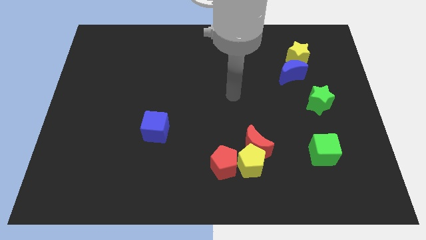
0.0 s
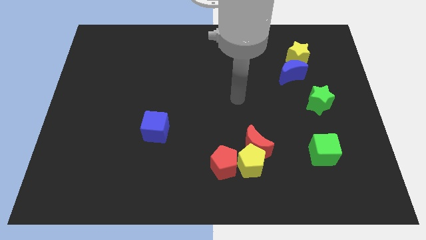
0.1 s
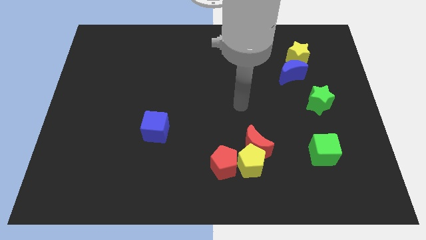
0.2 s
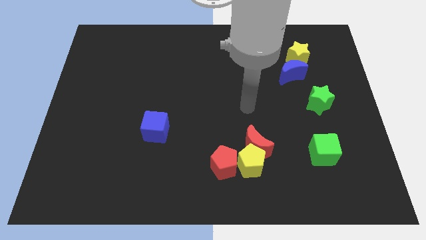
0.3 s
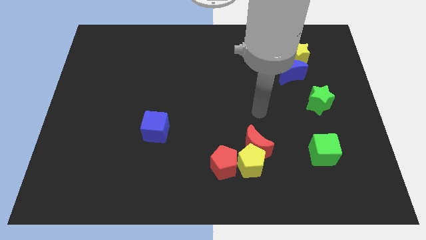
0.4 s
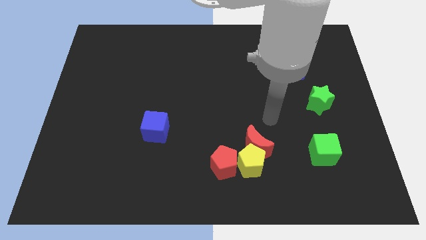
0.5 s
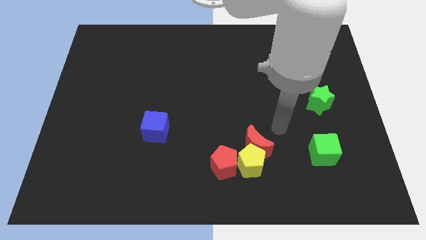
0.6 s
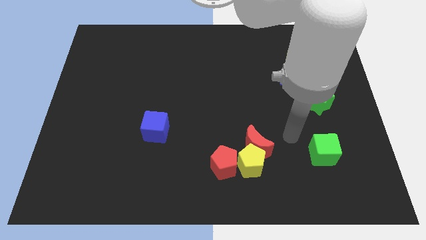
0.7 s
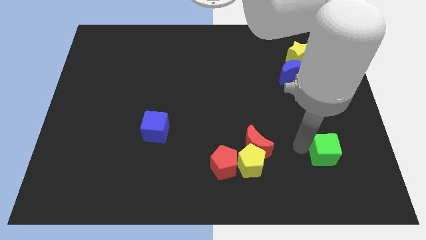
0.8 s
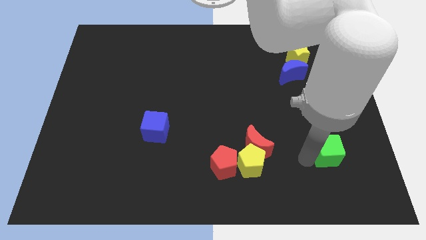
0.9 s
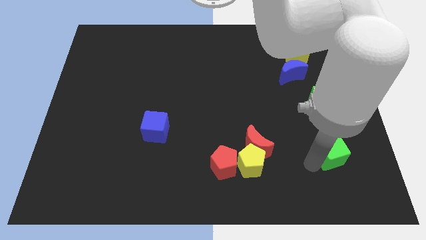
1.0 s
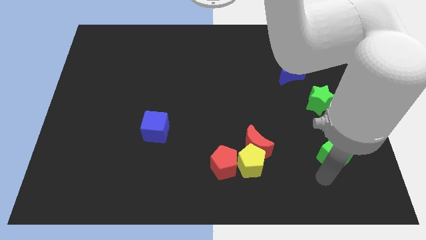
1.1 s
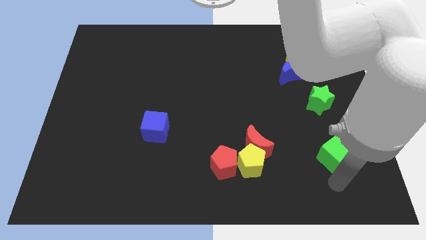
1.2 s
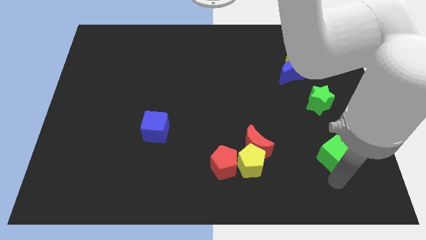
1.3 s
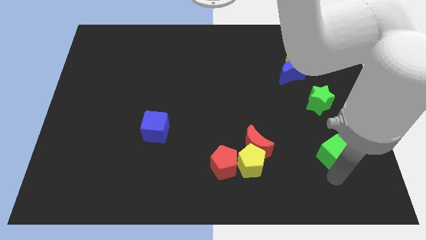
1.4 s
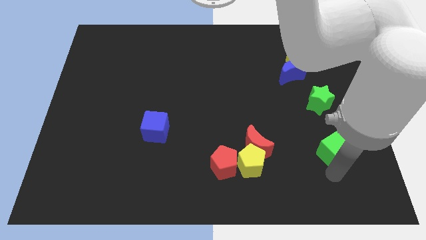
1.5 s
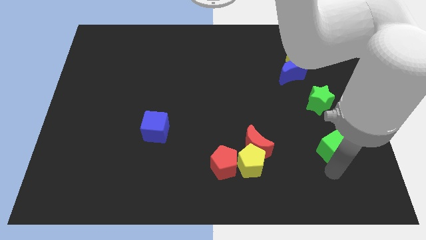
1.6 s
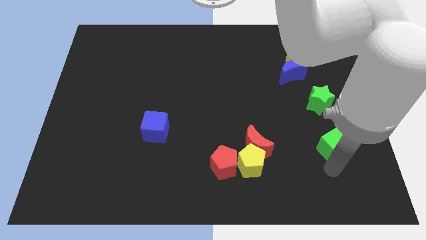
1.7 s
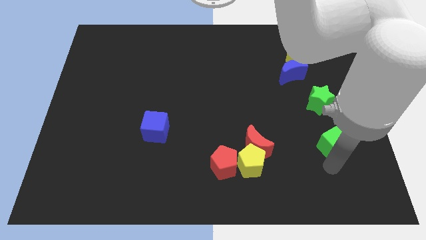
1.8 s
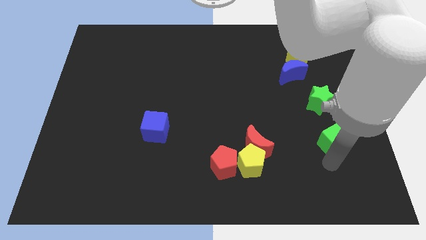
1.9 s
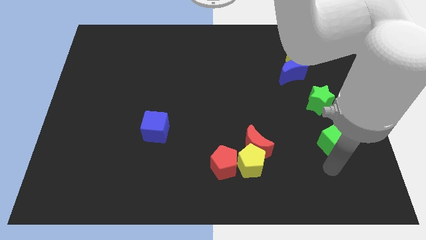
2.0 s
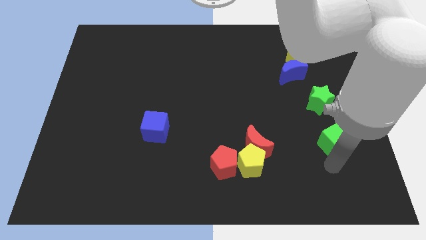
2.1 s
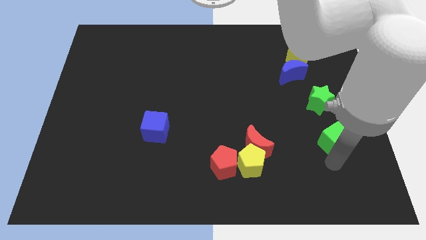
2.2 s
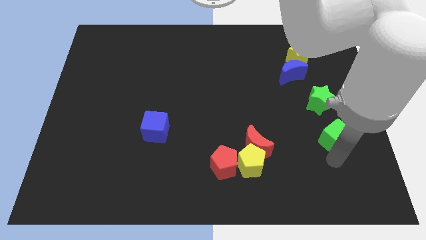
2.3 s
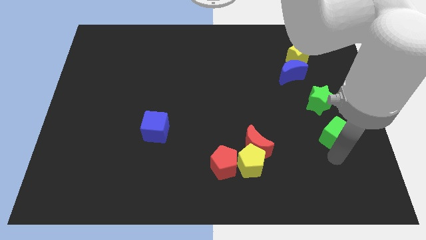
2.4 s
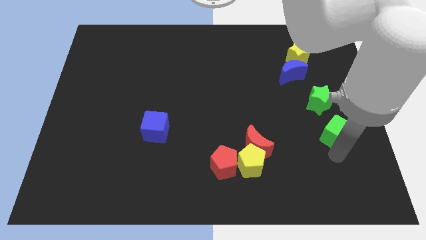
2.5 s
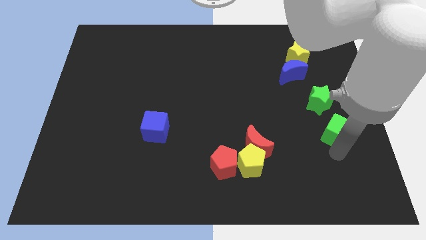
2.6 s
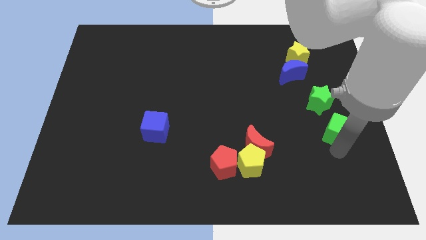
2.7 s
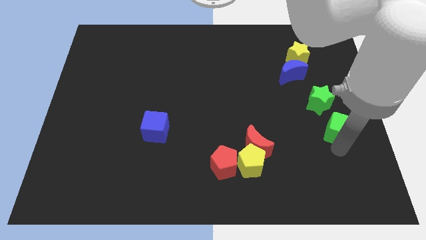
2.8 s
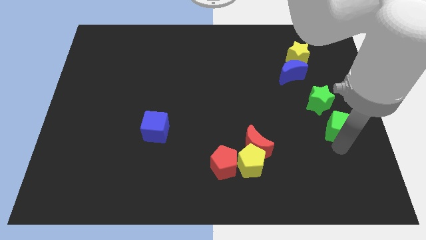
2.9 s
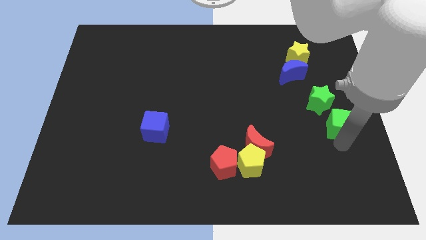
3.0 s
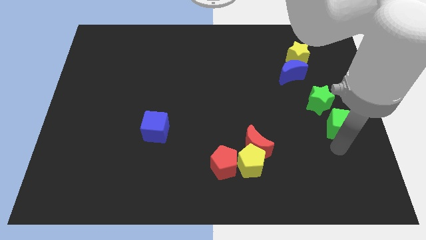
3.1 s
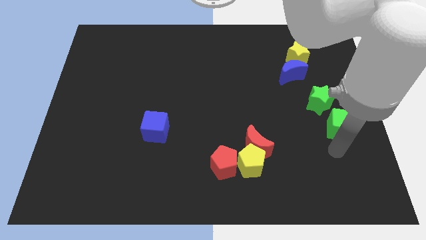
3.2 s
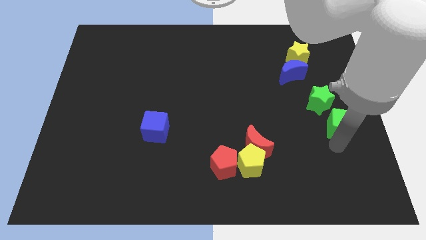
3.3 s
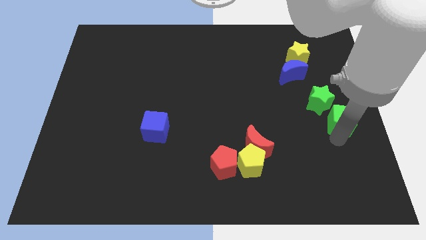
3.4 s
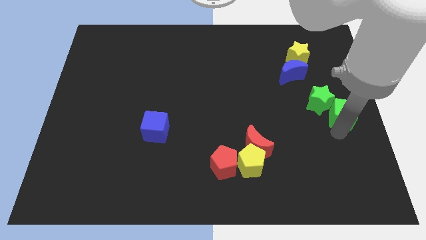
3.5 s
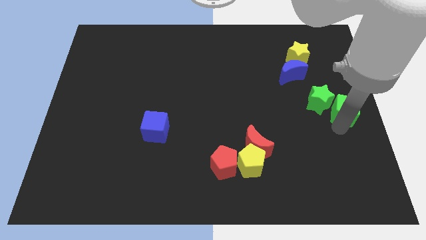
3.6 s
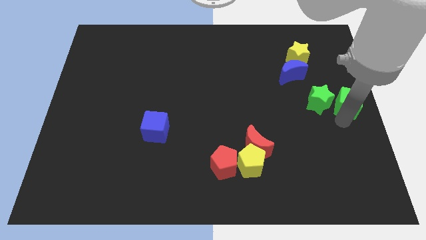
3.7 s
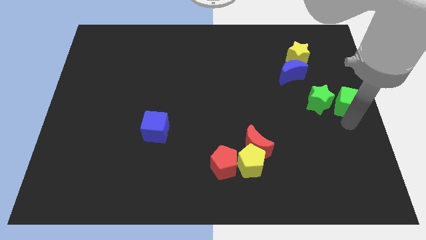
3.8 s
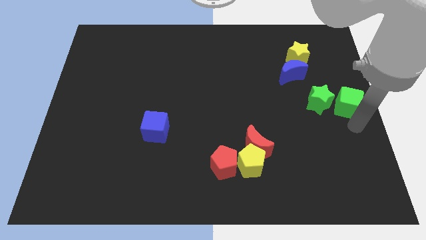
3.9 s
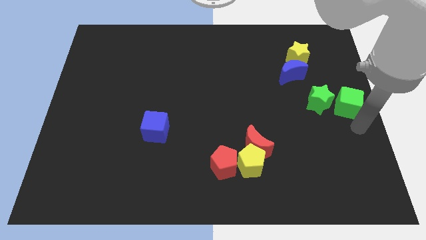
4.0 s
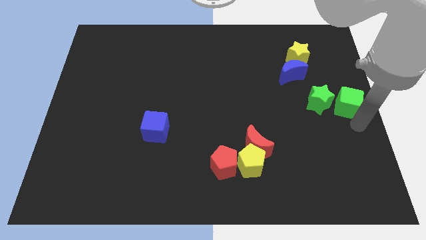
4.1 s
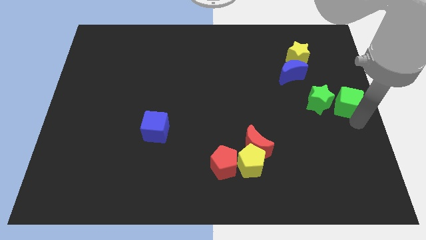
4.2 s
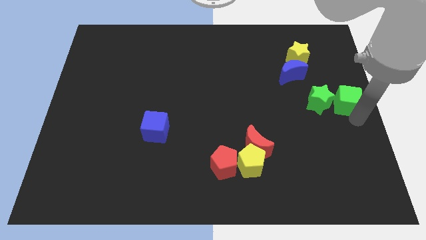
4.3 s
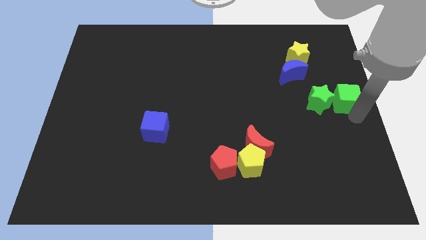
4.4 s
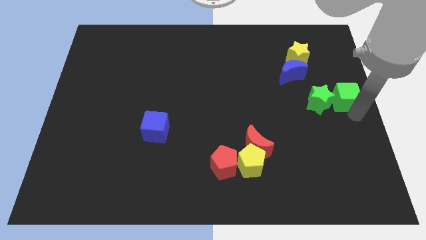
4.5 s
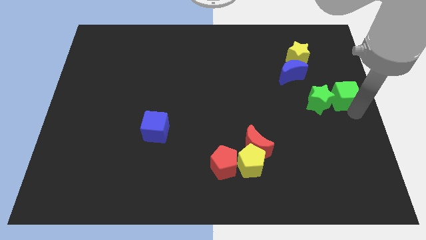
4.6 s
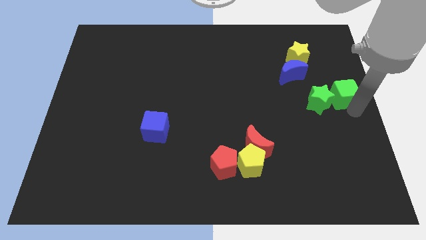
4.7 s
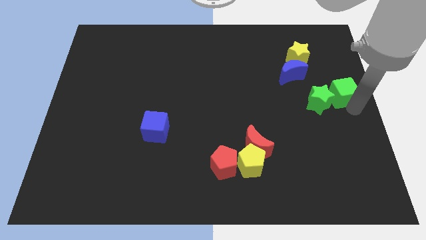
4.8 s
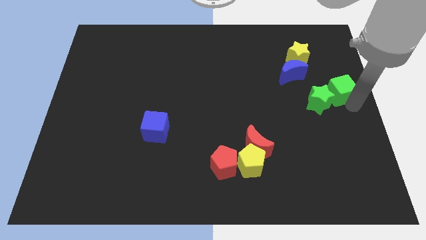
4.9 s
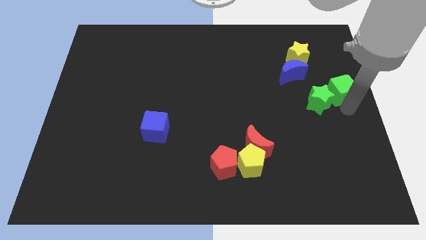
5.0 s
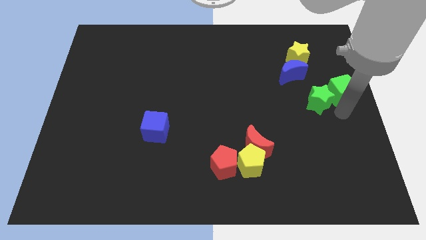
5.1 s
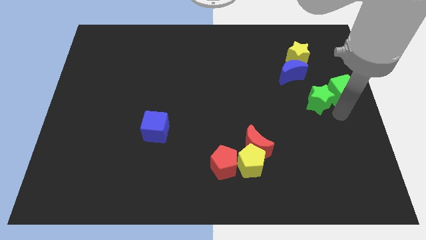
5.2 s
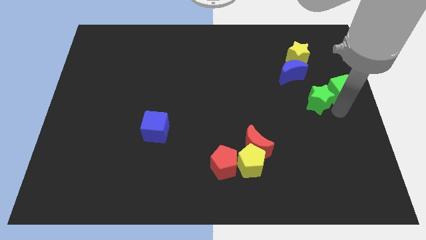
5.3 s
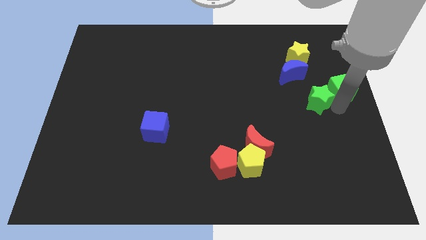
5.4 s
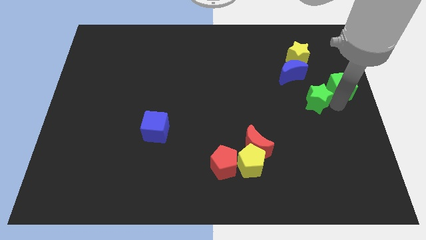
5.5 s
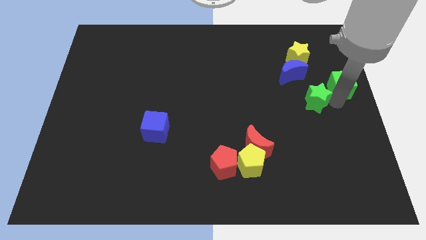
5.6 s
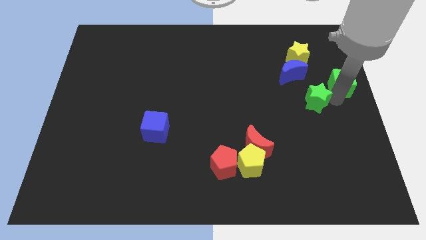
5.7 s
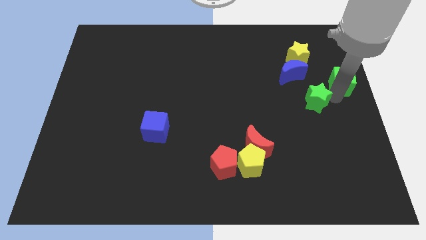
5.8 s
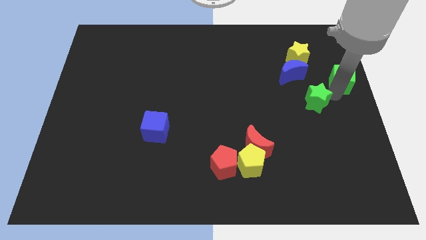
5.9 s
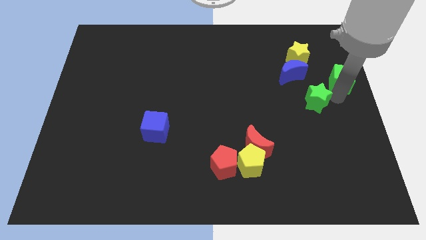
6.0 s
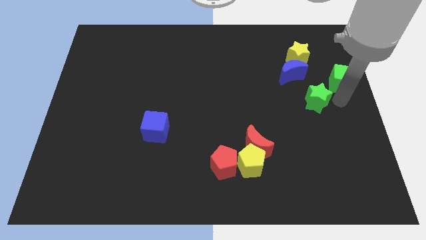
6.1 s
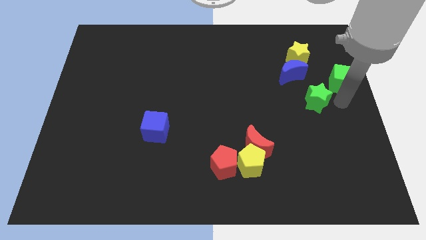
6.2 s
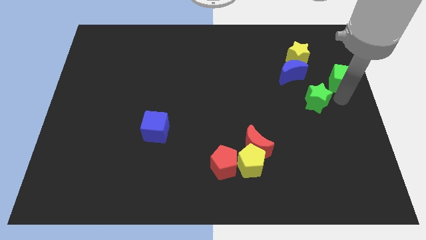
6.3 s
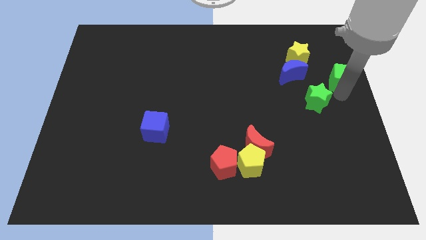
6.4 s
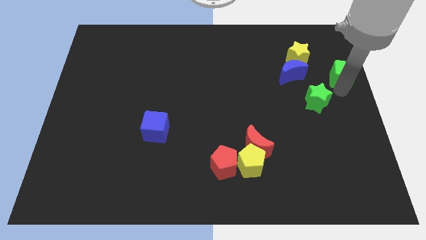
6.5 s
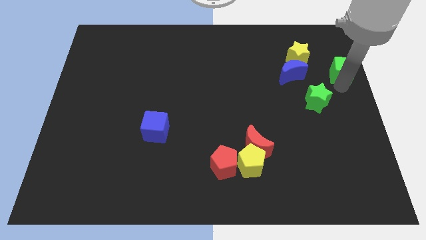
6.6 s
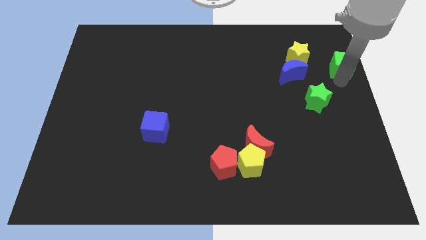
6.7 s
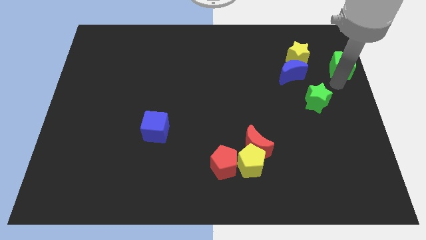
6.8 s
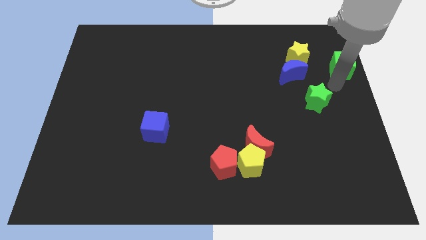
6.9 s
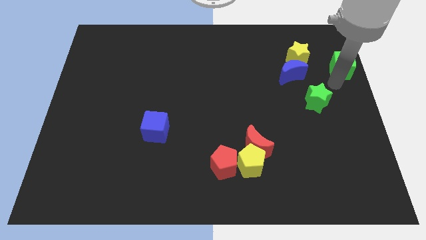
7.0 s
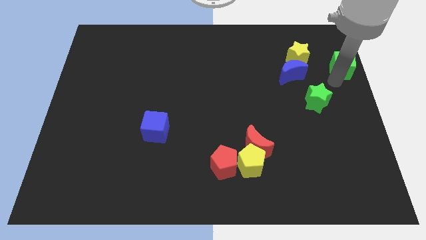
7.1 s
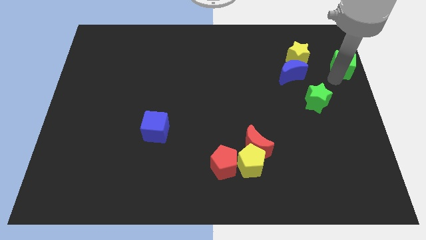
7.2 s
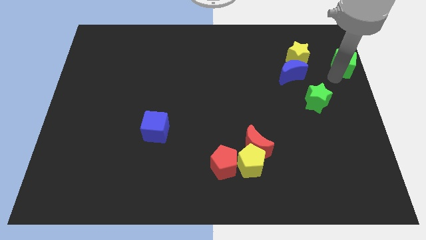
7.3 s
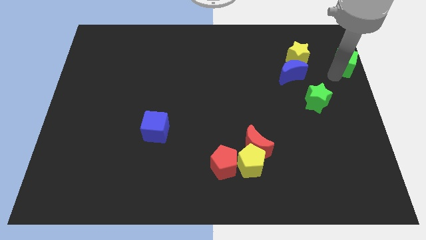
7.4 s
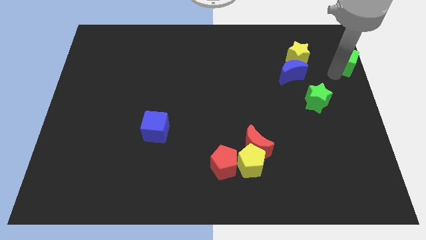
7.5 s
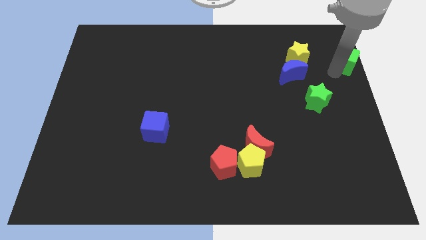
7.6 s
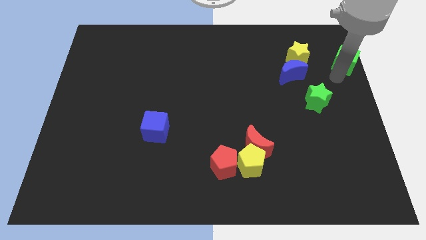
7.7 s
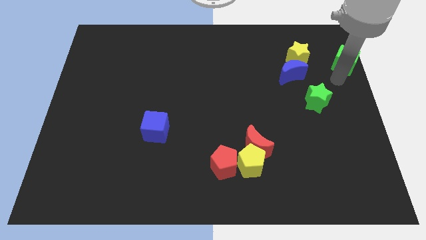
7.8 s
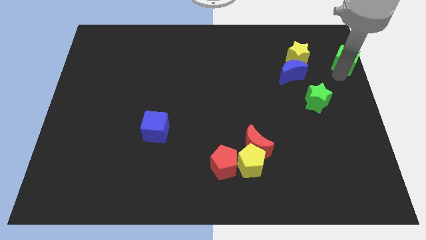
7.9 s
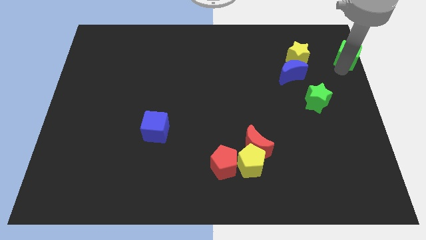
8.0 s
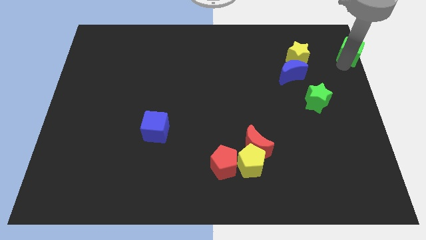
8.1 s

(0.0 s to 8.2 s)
slide the green cube to the top right
